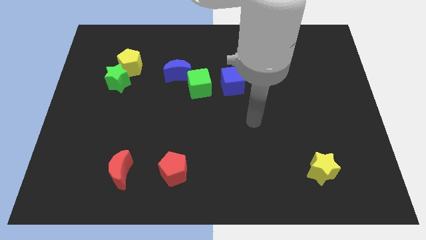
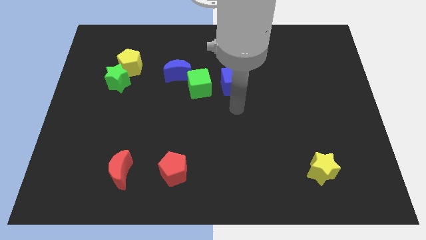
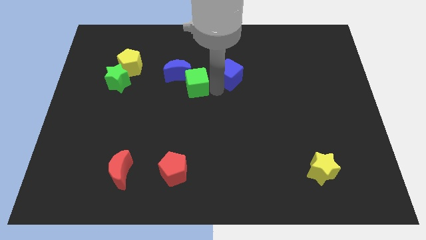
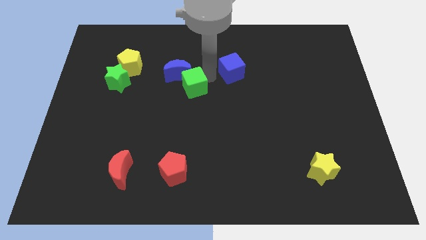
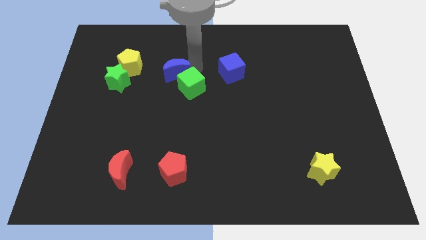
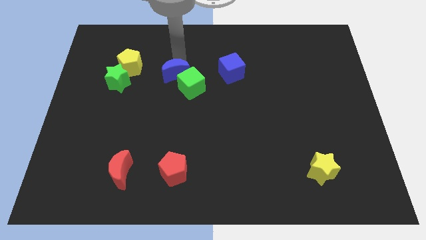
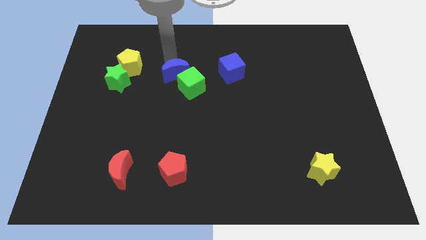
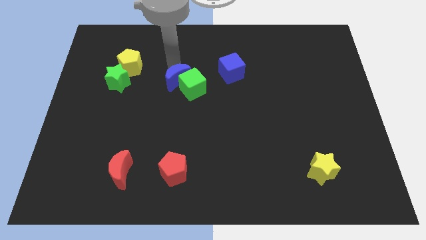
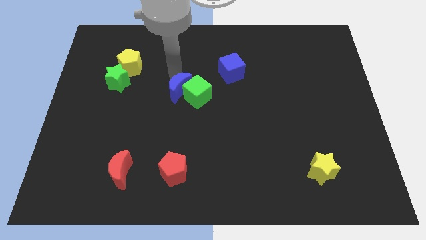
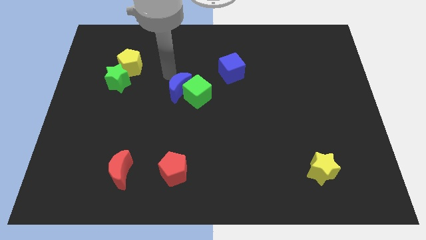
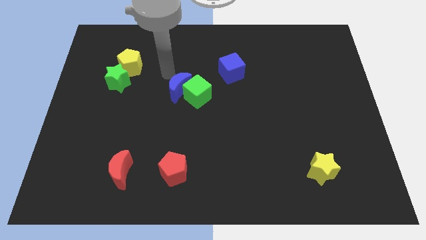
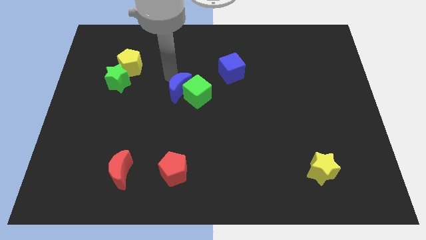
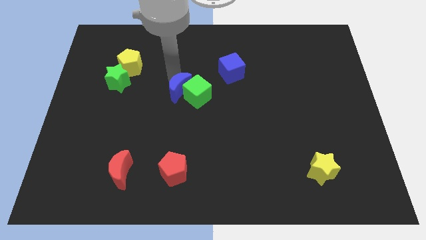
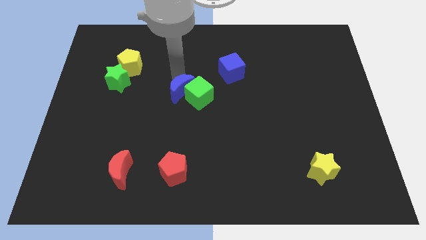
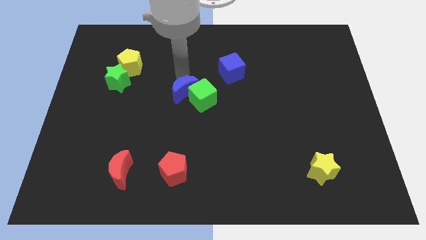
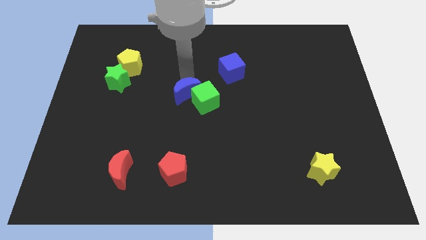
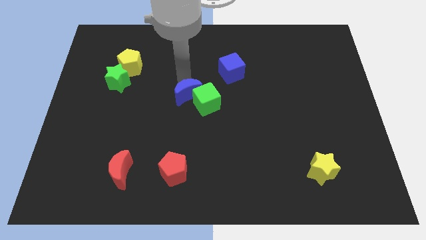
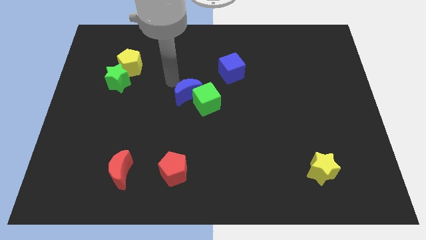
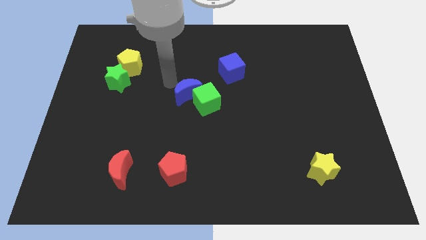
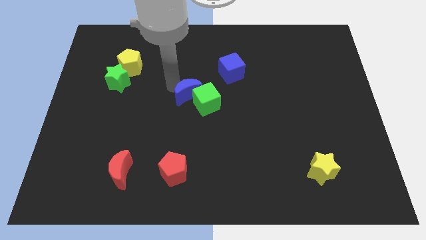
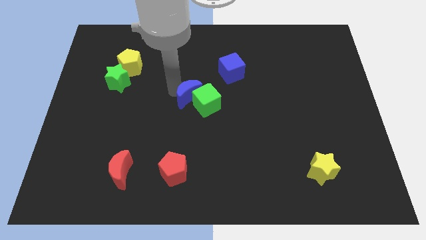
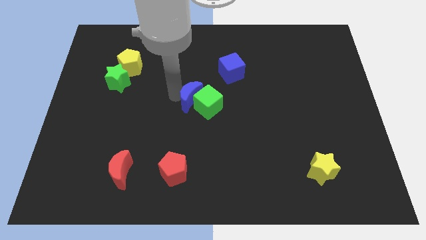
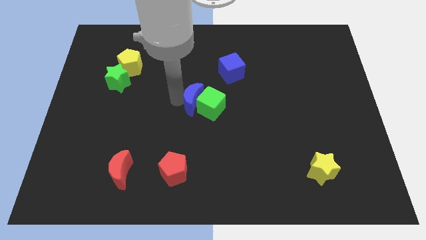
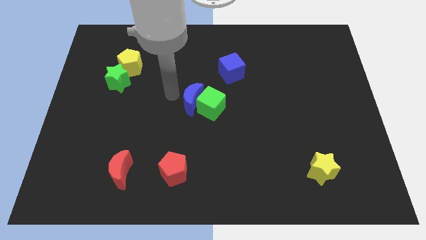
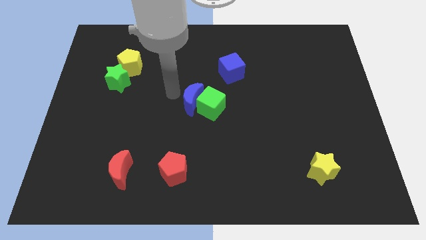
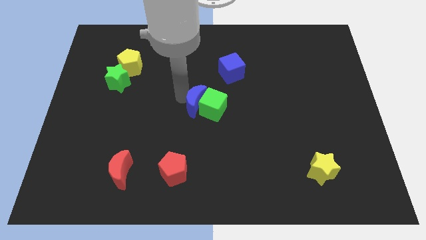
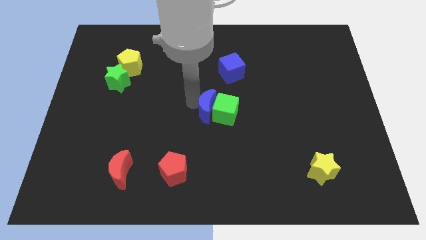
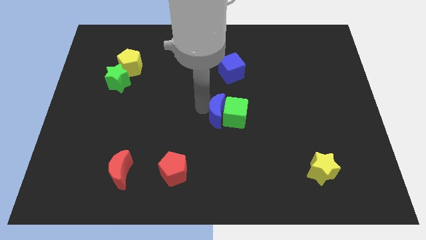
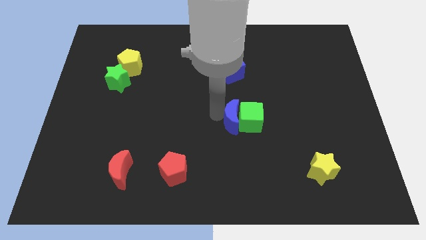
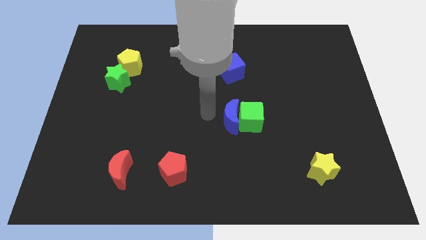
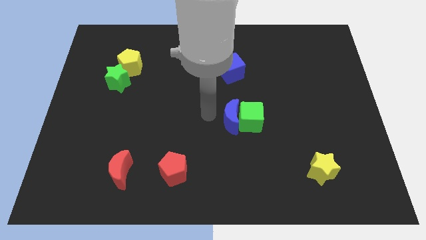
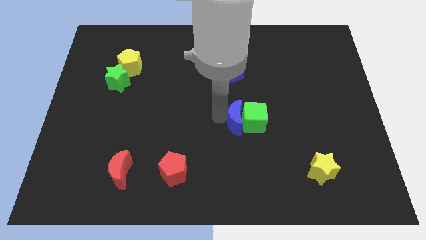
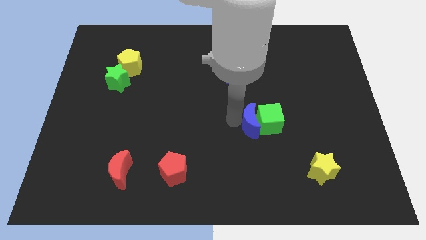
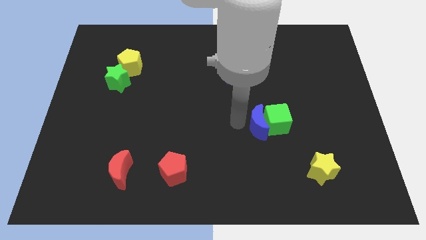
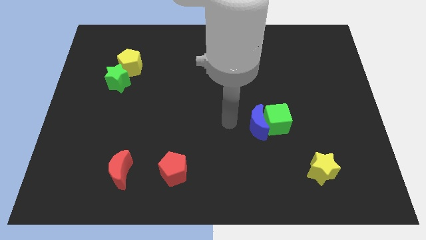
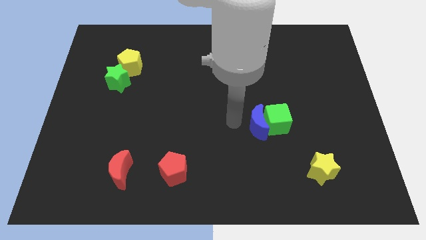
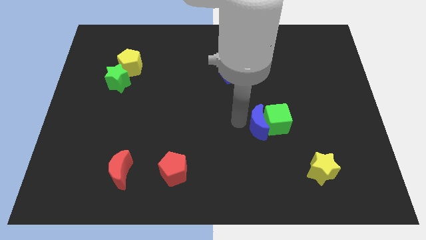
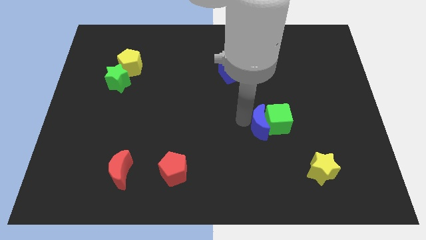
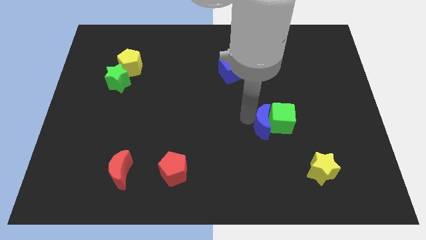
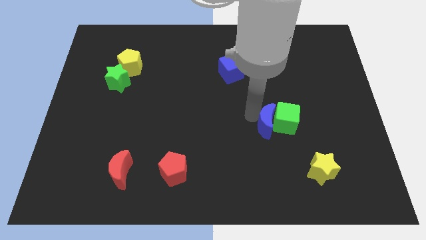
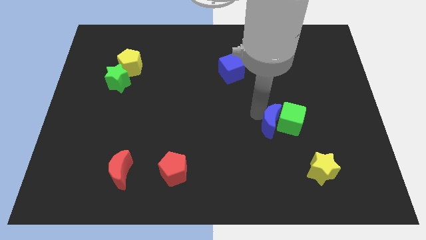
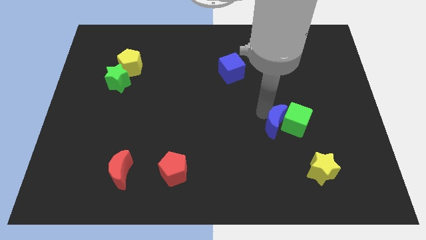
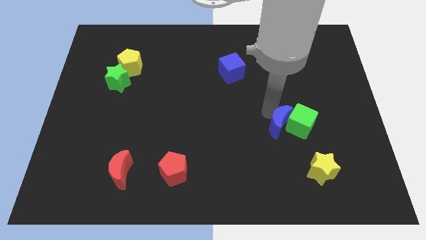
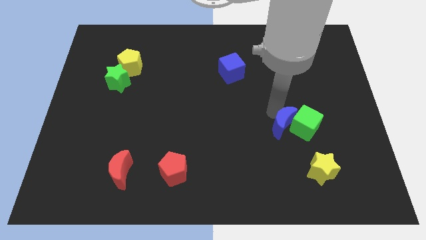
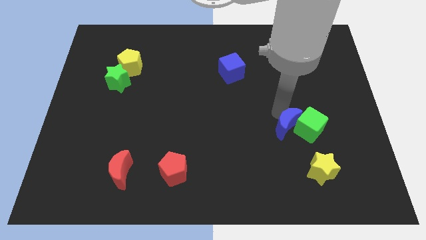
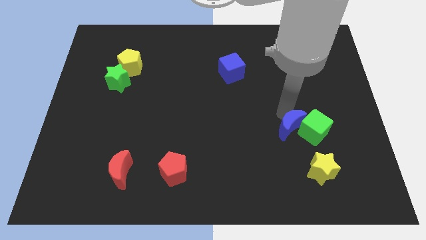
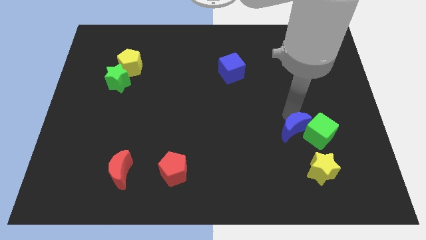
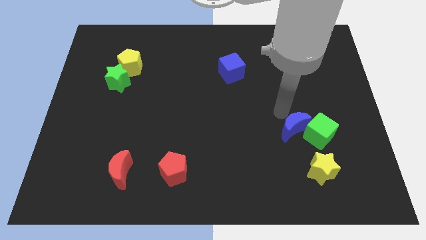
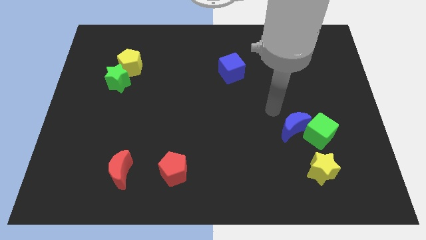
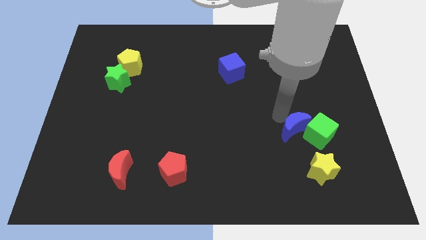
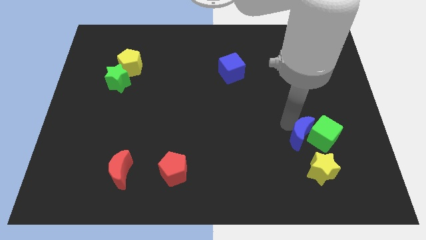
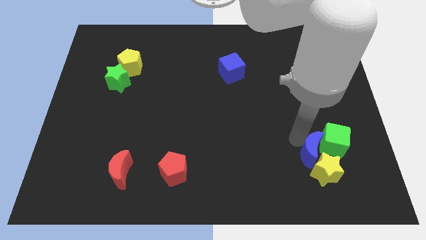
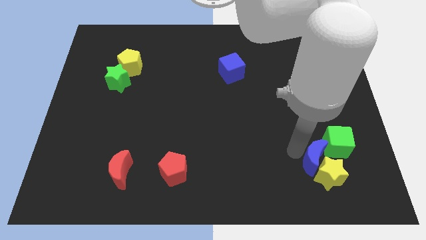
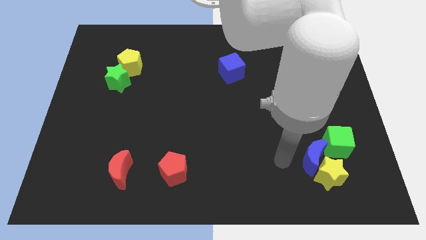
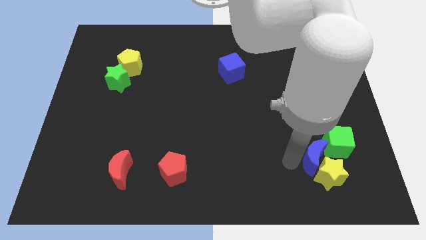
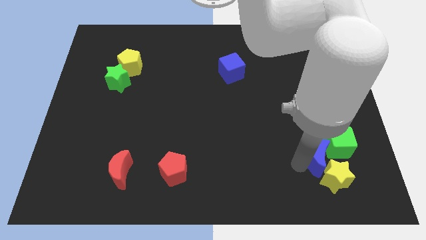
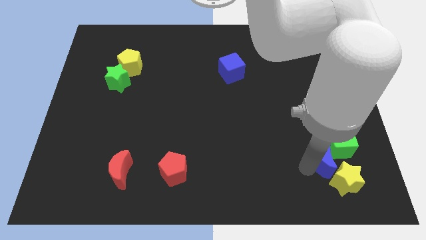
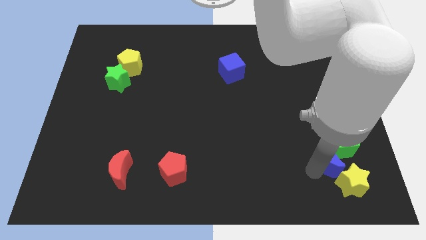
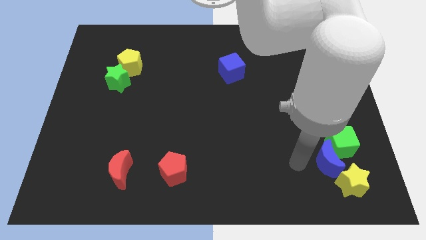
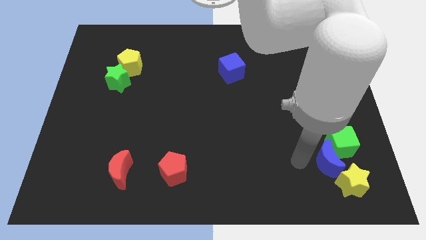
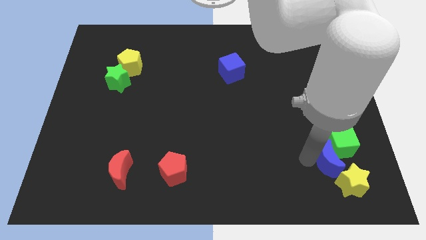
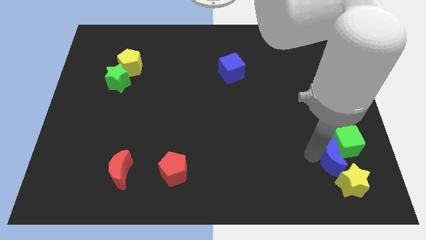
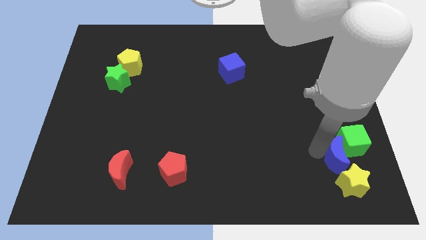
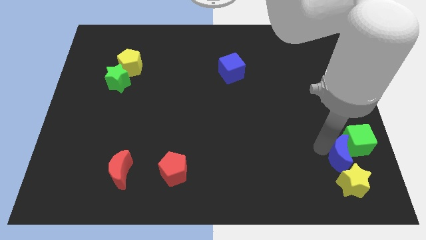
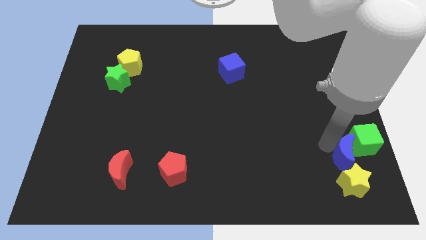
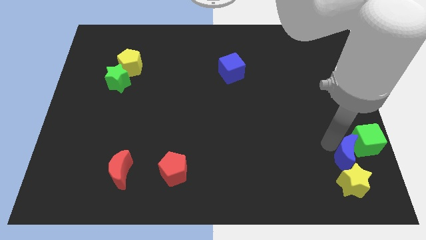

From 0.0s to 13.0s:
slide the blue moon diagonally up and to the right of the yellow star
